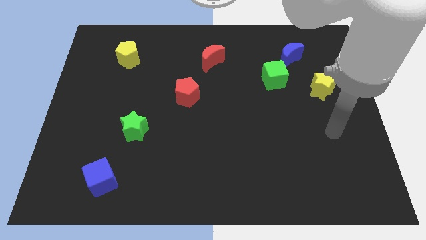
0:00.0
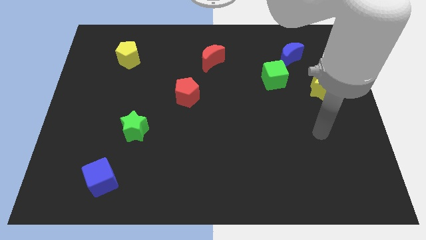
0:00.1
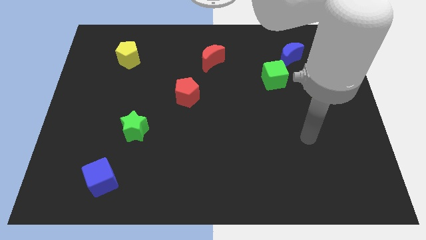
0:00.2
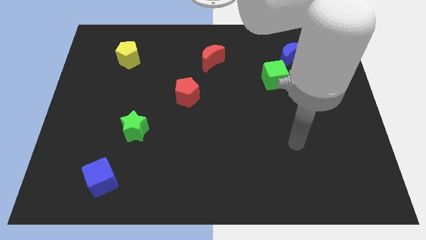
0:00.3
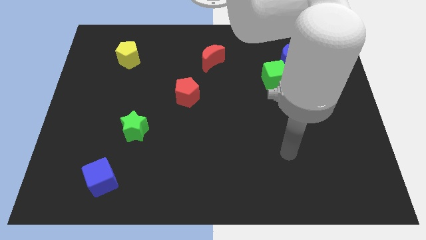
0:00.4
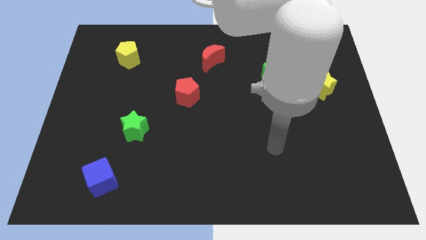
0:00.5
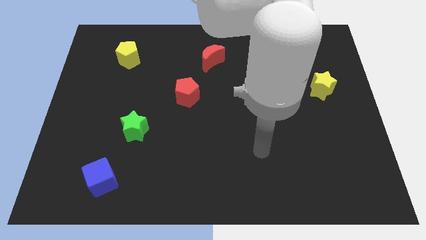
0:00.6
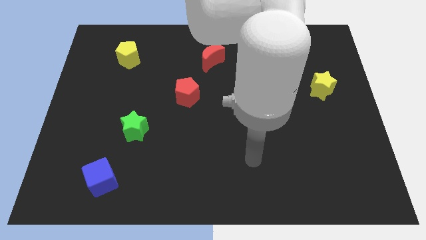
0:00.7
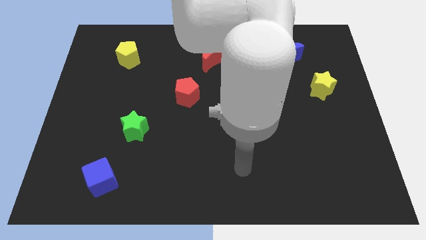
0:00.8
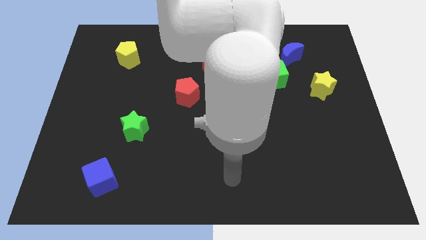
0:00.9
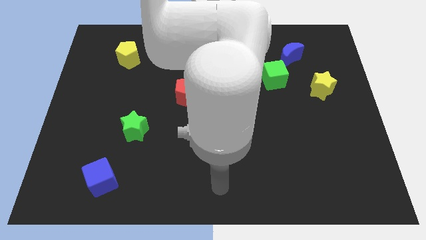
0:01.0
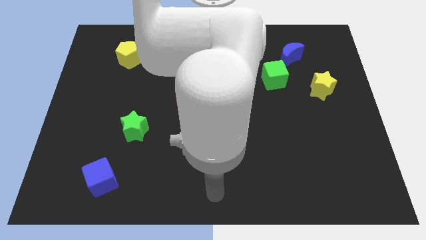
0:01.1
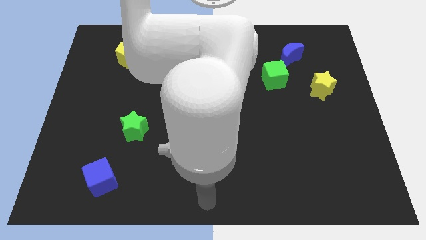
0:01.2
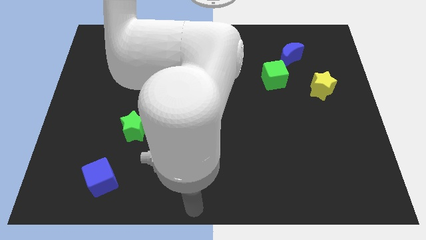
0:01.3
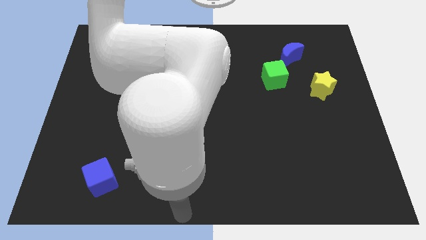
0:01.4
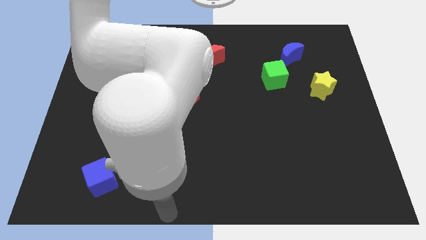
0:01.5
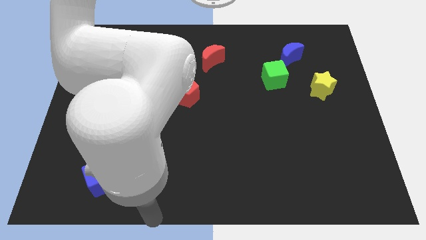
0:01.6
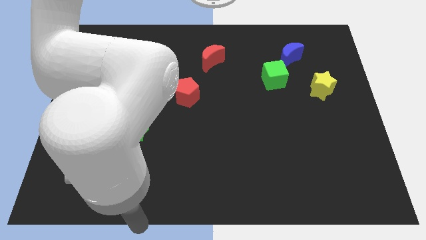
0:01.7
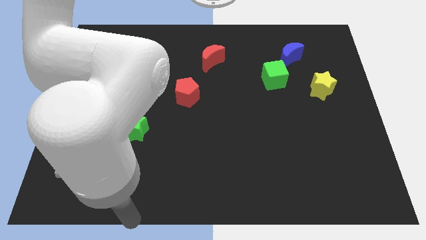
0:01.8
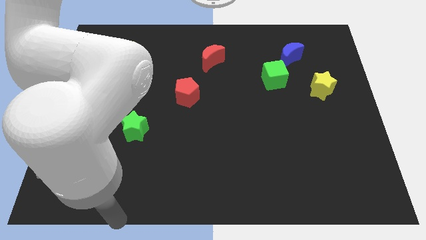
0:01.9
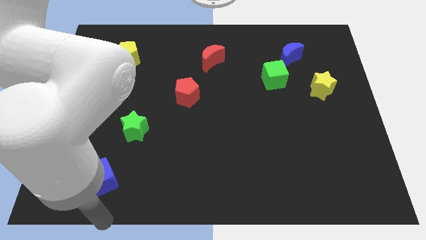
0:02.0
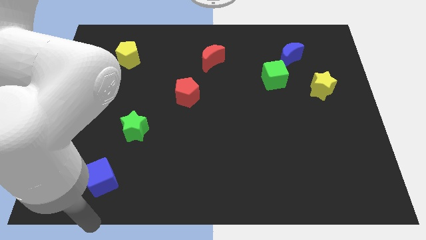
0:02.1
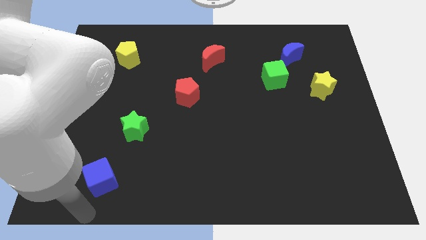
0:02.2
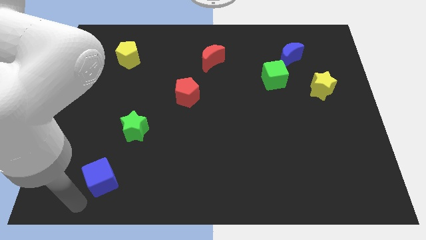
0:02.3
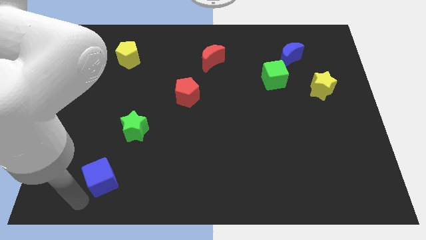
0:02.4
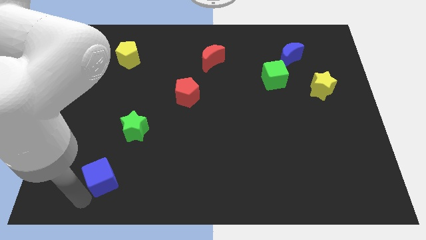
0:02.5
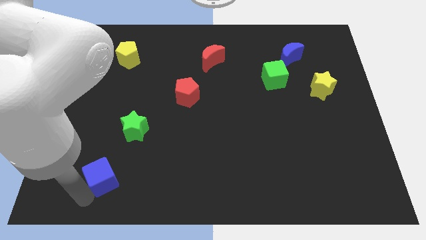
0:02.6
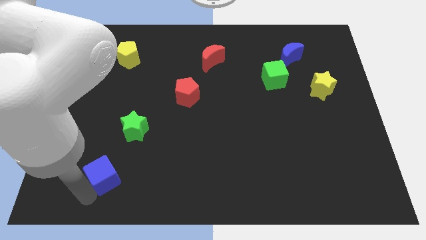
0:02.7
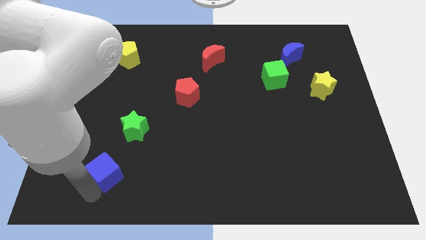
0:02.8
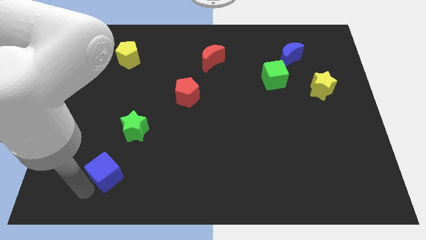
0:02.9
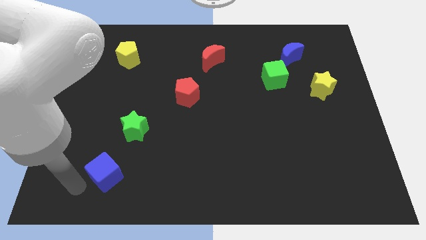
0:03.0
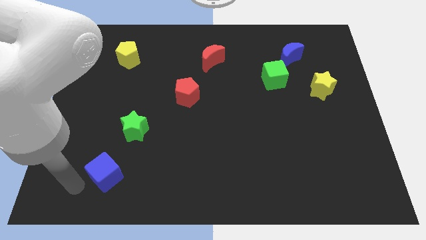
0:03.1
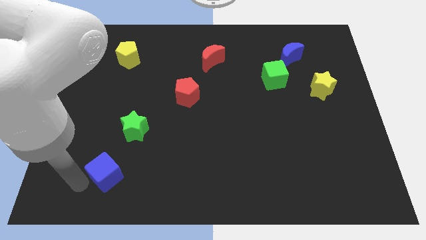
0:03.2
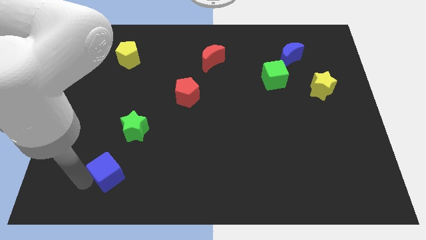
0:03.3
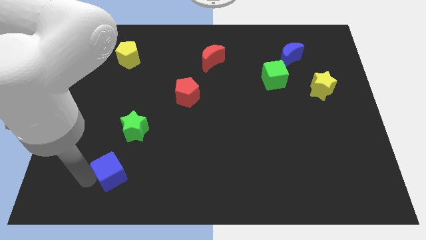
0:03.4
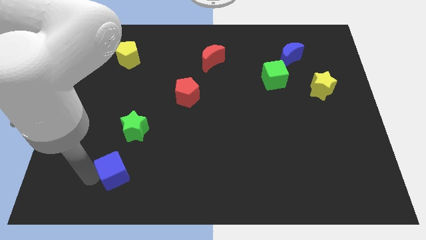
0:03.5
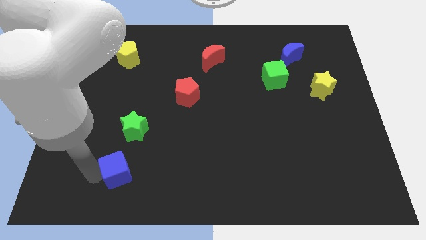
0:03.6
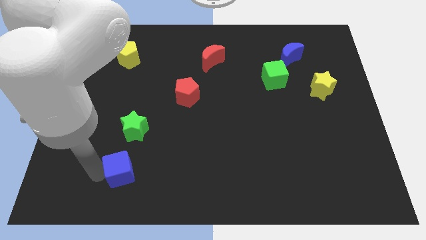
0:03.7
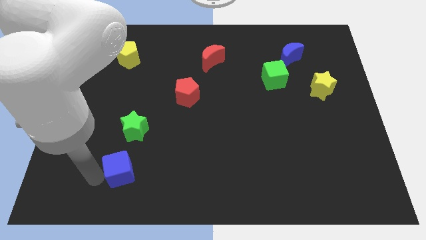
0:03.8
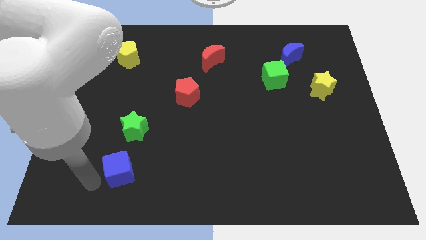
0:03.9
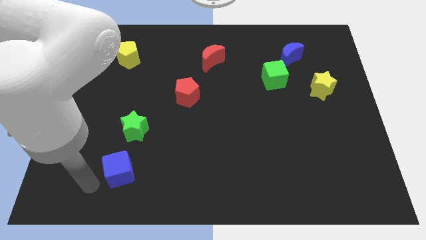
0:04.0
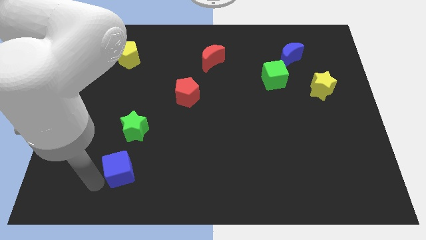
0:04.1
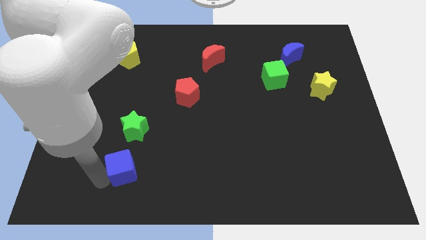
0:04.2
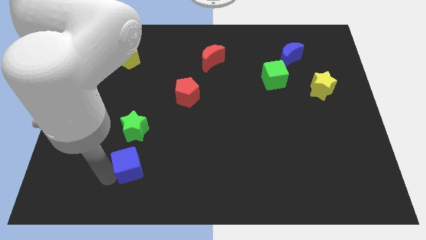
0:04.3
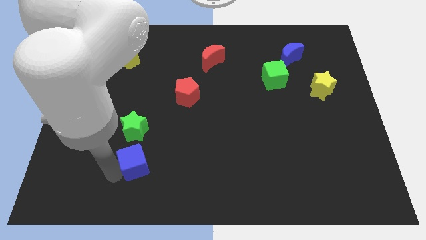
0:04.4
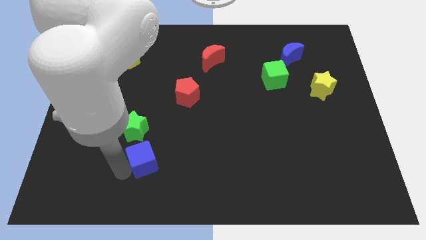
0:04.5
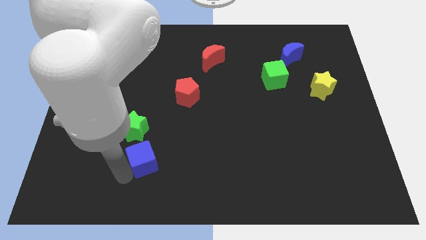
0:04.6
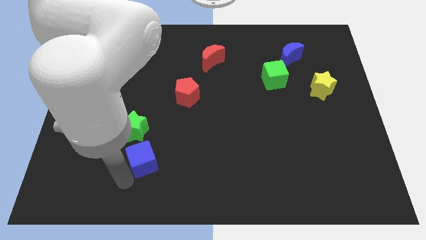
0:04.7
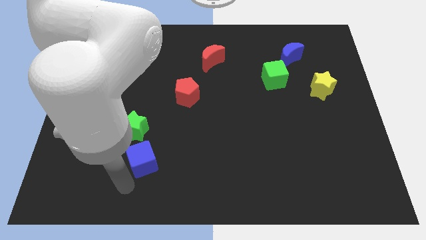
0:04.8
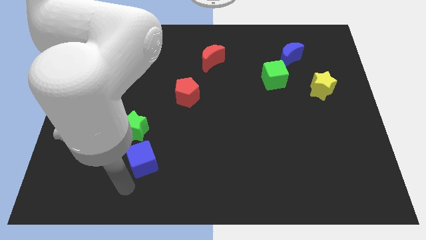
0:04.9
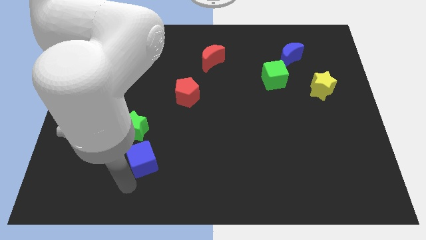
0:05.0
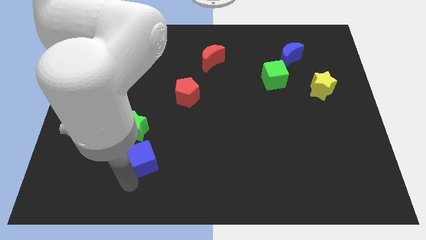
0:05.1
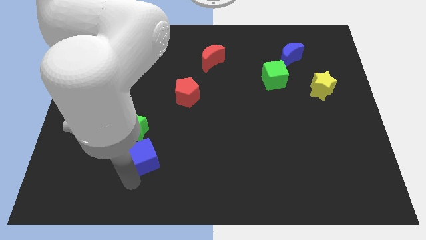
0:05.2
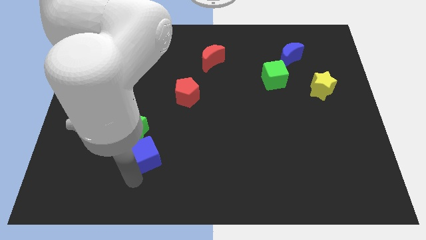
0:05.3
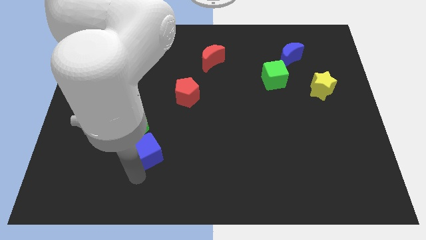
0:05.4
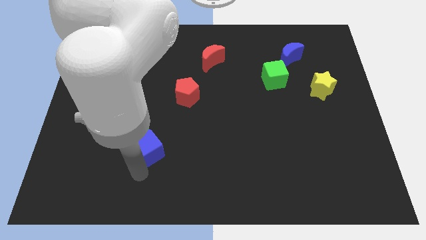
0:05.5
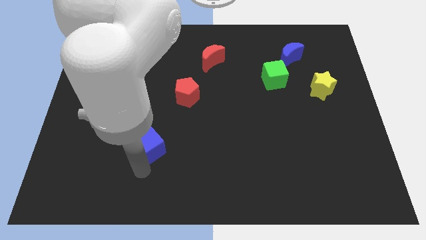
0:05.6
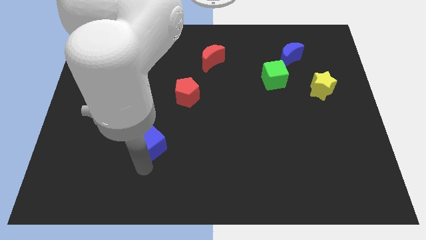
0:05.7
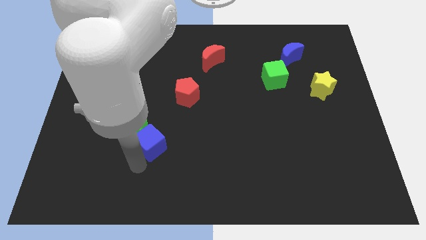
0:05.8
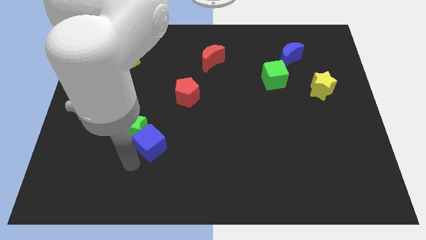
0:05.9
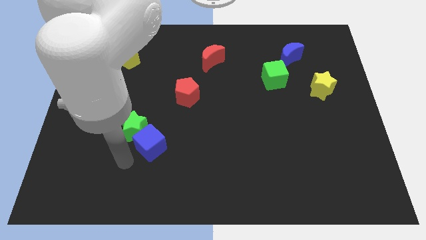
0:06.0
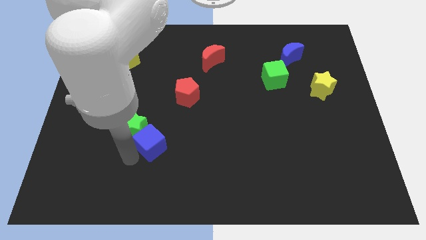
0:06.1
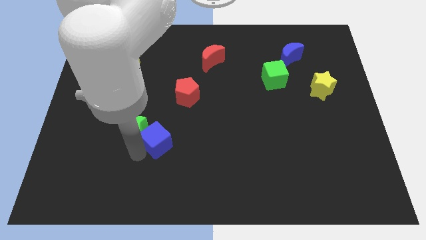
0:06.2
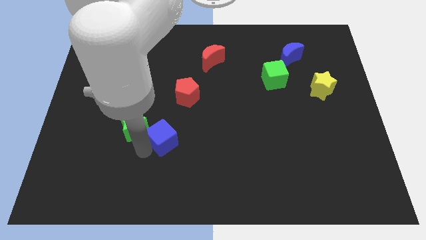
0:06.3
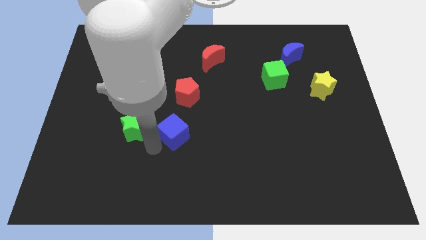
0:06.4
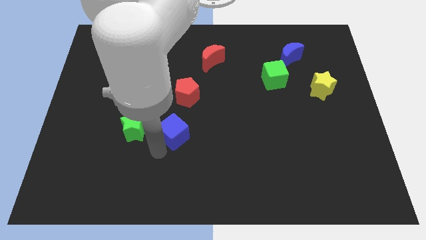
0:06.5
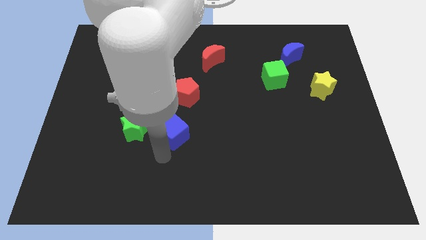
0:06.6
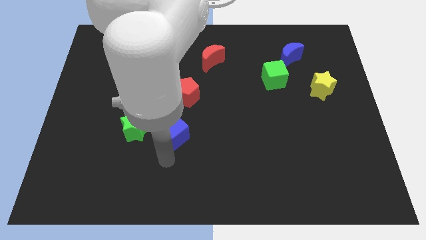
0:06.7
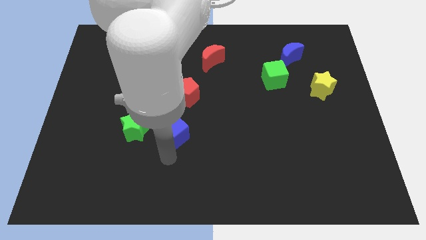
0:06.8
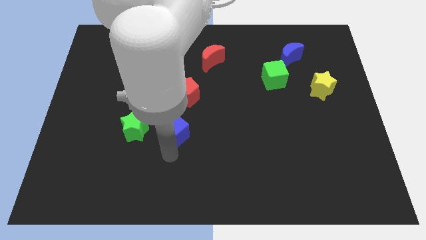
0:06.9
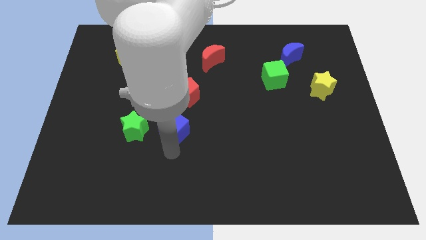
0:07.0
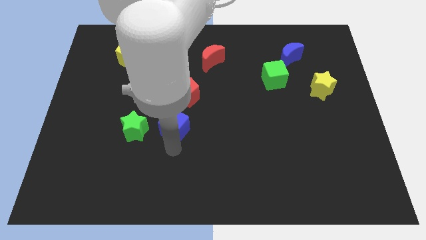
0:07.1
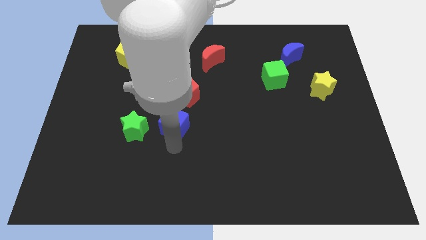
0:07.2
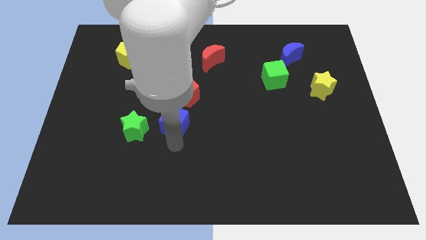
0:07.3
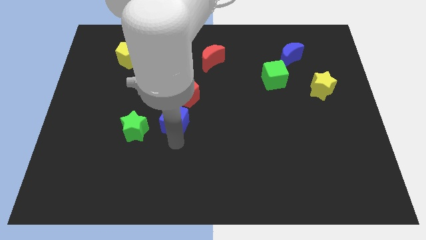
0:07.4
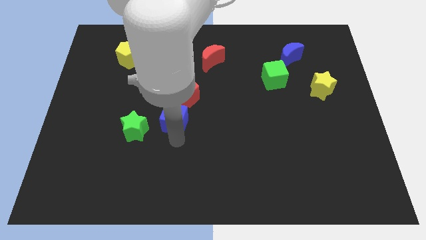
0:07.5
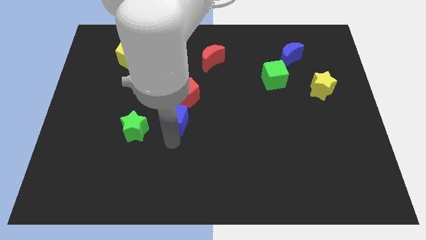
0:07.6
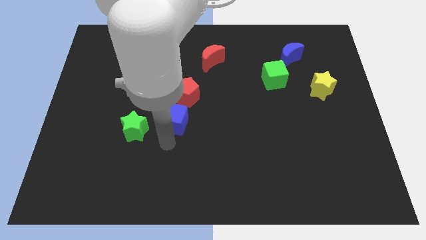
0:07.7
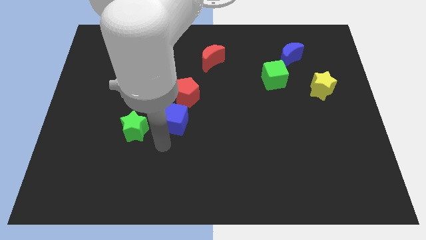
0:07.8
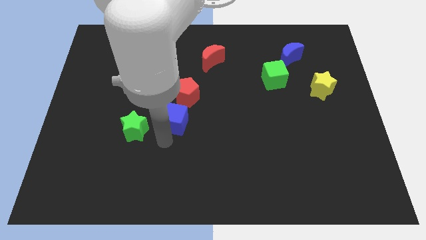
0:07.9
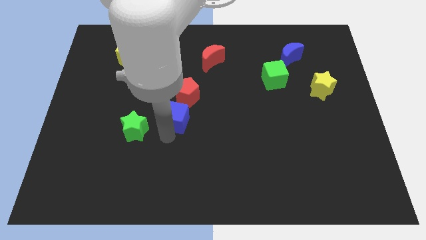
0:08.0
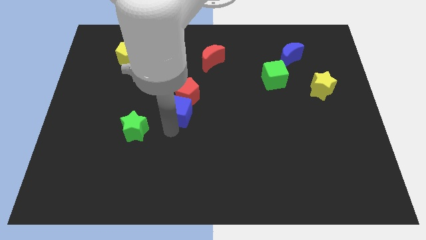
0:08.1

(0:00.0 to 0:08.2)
slide the blue cube next to the red pentagon
